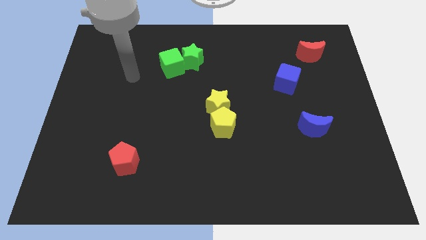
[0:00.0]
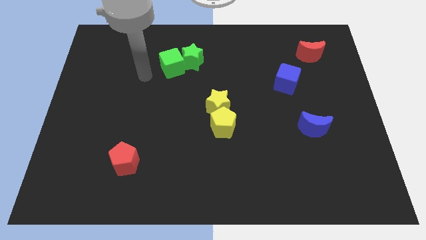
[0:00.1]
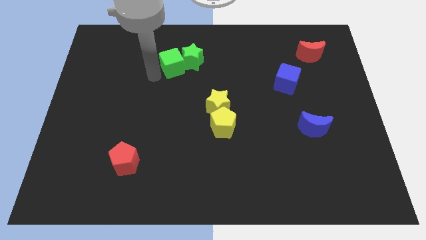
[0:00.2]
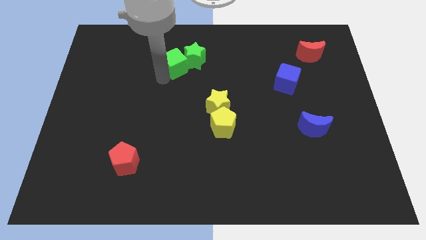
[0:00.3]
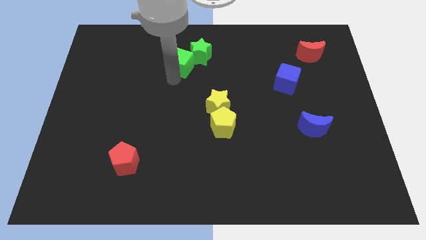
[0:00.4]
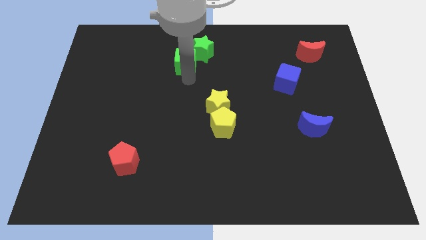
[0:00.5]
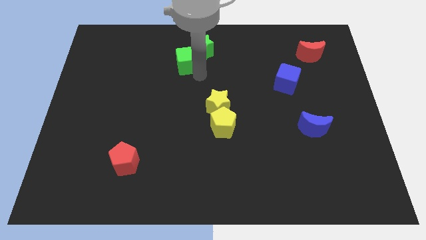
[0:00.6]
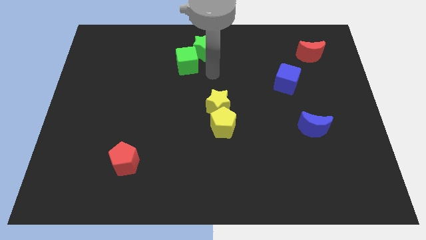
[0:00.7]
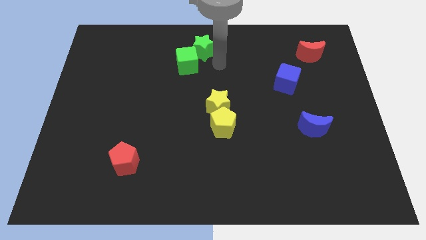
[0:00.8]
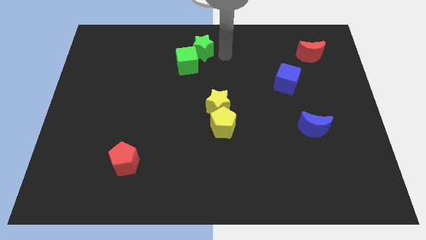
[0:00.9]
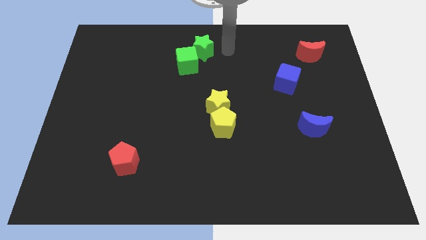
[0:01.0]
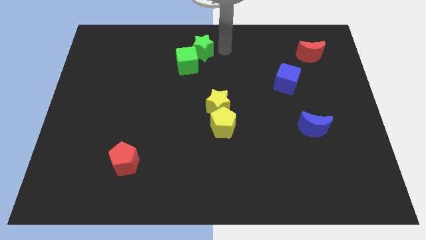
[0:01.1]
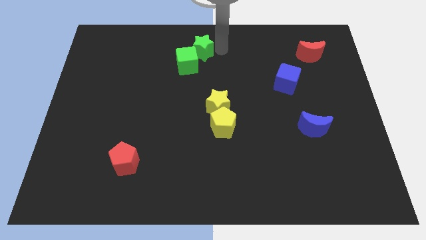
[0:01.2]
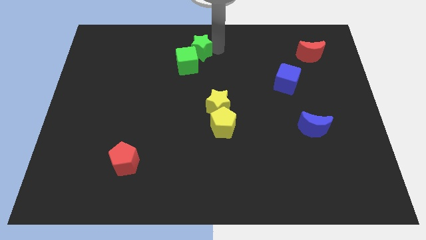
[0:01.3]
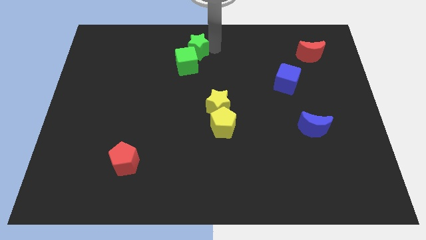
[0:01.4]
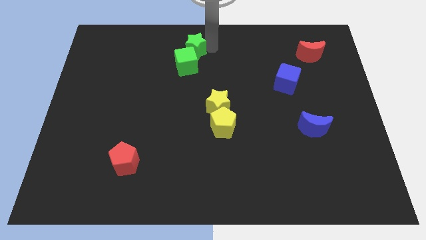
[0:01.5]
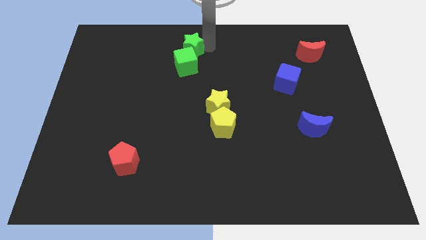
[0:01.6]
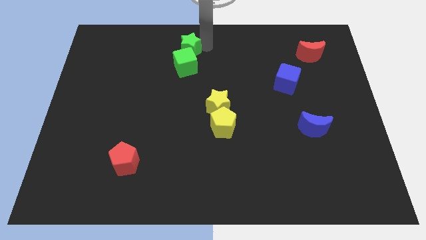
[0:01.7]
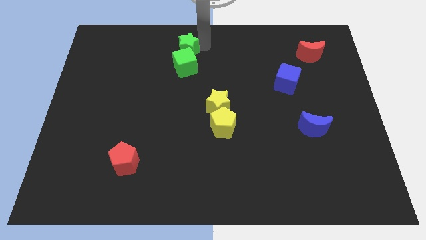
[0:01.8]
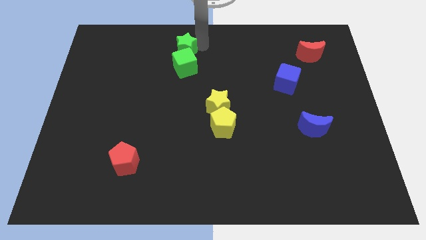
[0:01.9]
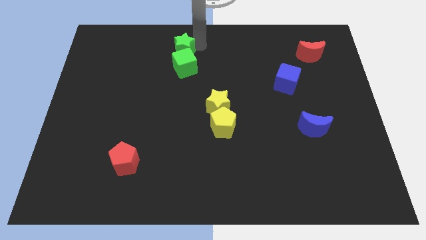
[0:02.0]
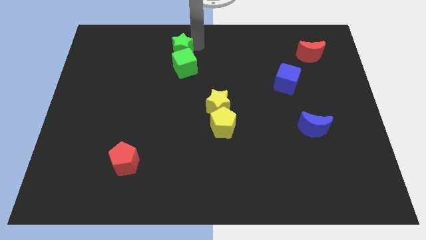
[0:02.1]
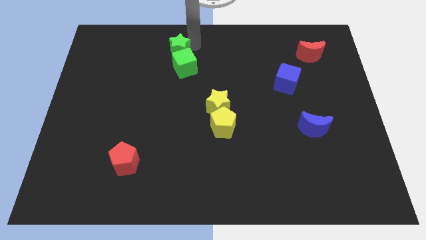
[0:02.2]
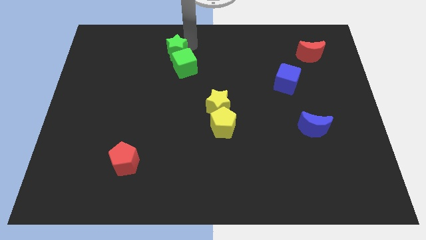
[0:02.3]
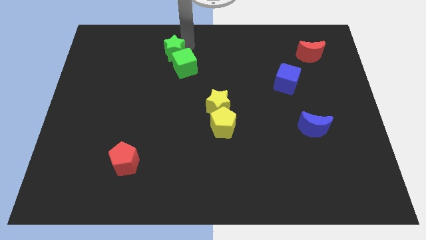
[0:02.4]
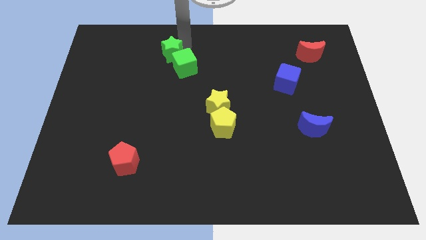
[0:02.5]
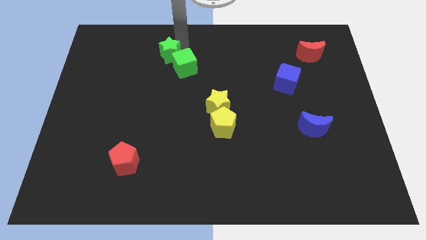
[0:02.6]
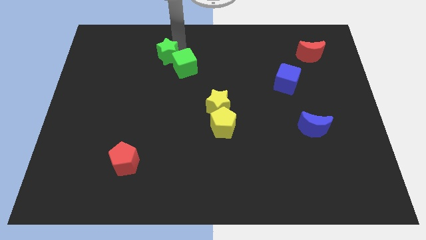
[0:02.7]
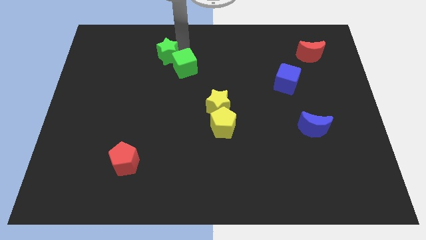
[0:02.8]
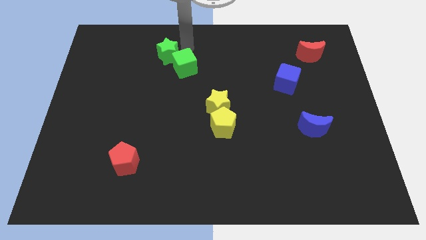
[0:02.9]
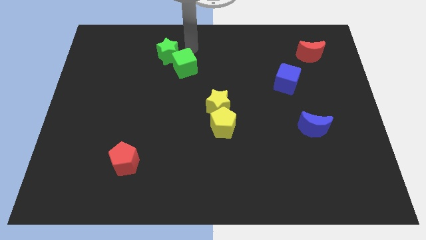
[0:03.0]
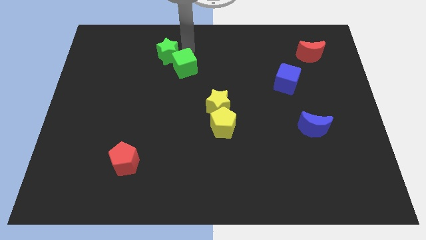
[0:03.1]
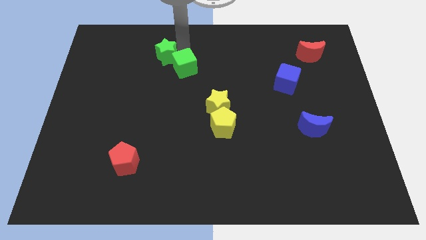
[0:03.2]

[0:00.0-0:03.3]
slightly move the green star to the left

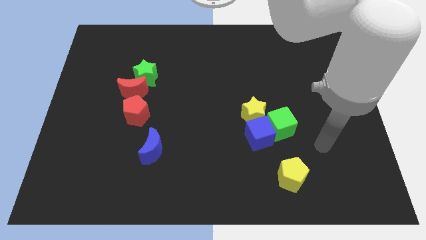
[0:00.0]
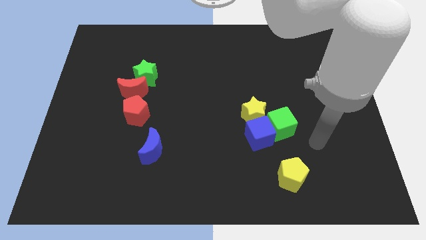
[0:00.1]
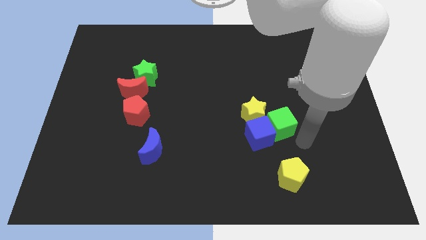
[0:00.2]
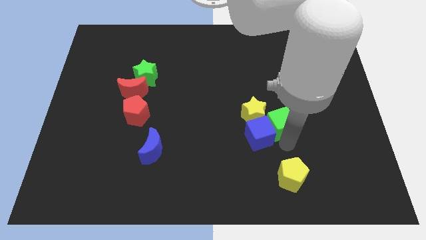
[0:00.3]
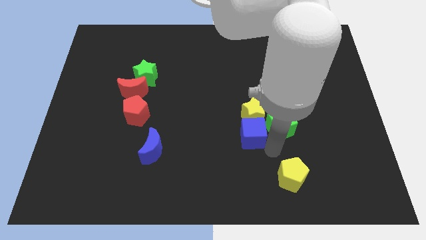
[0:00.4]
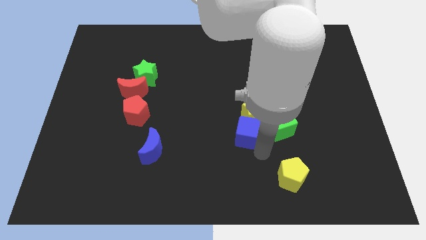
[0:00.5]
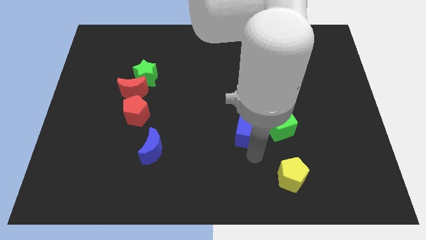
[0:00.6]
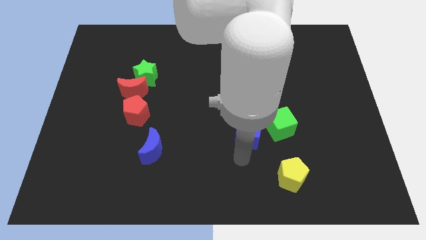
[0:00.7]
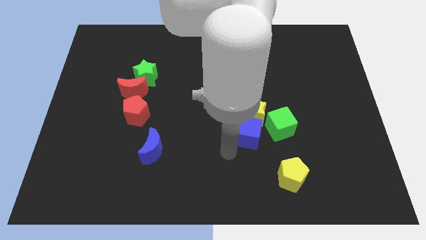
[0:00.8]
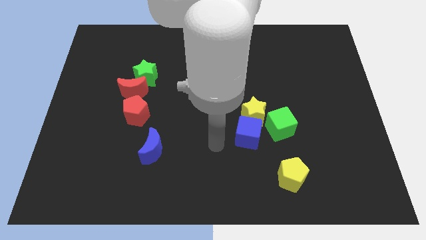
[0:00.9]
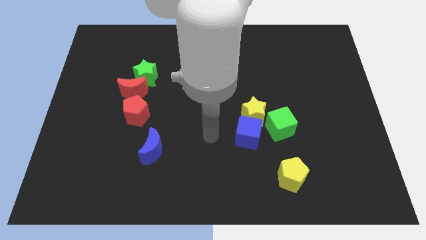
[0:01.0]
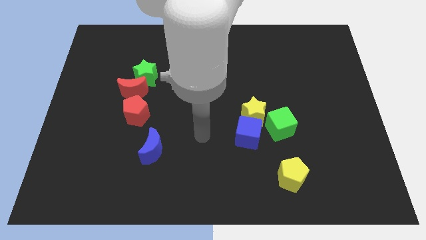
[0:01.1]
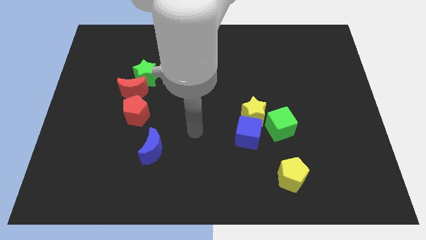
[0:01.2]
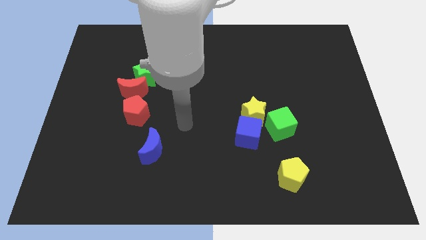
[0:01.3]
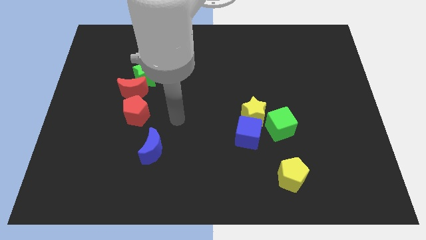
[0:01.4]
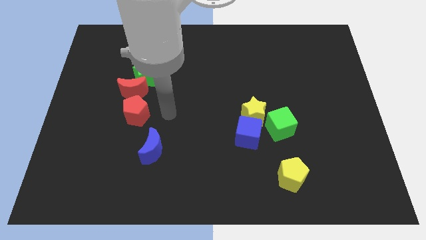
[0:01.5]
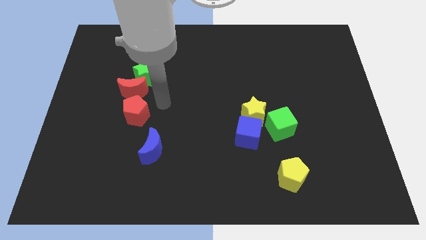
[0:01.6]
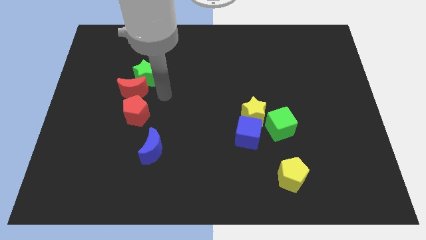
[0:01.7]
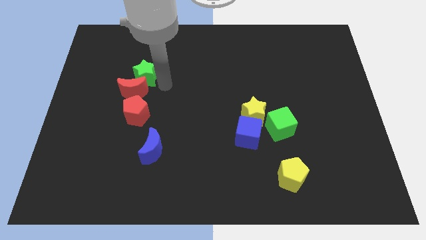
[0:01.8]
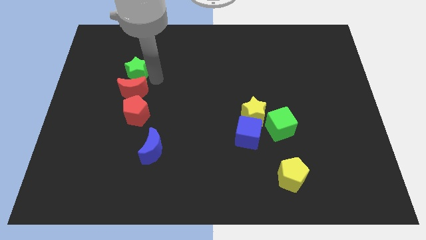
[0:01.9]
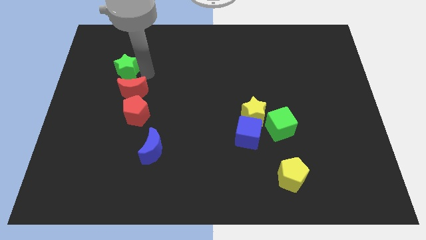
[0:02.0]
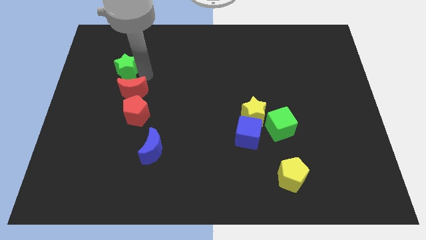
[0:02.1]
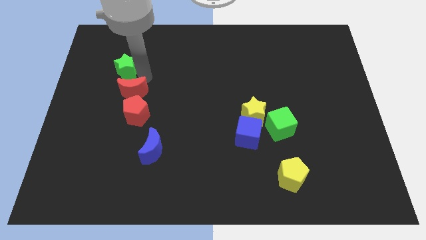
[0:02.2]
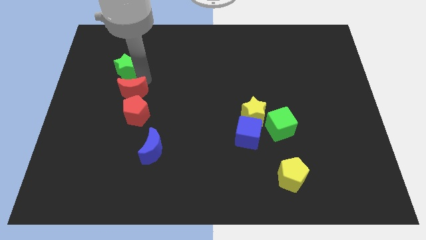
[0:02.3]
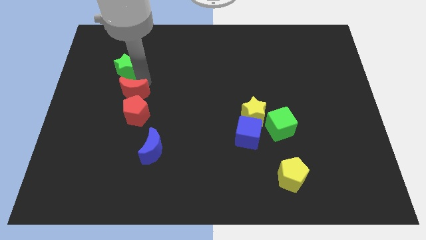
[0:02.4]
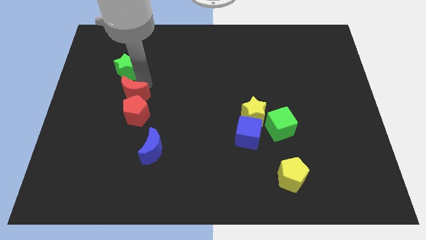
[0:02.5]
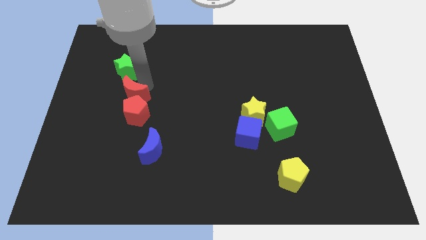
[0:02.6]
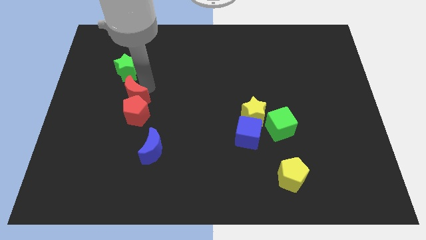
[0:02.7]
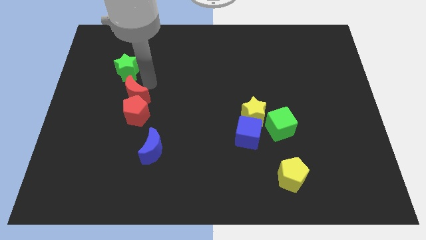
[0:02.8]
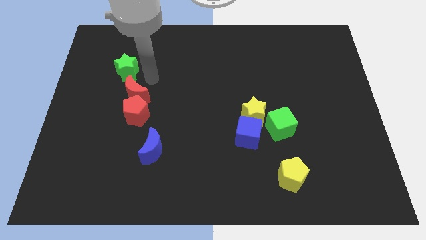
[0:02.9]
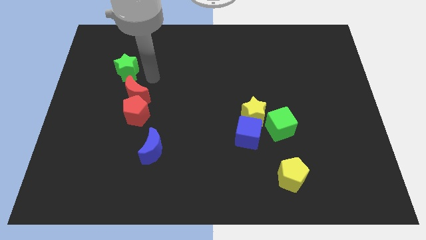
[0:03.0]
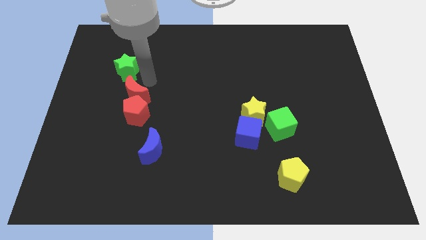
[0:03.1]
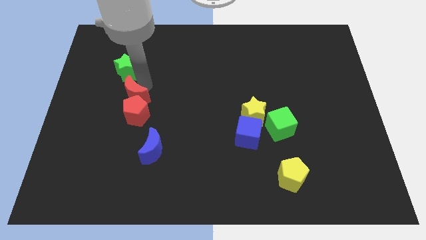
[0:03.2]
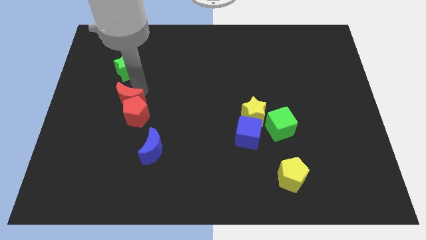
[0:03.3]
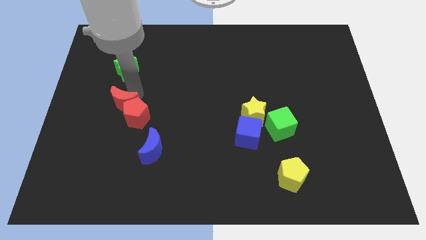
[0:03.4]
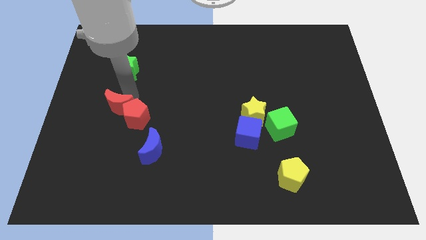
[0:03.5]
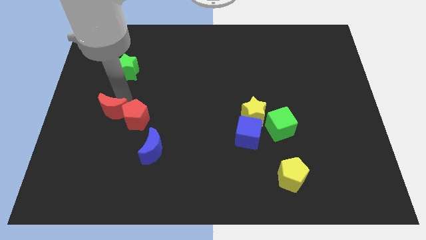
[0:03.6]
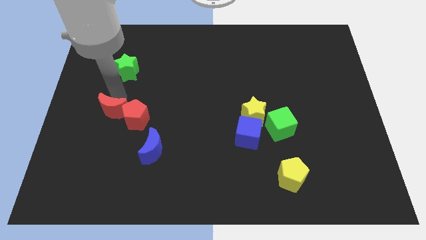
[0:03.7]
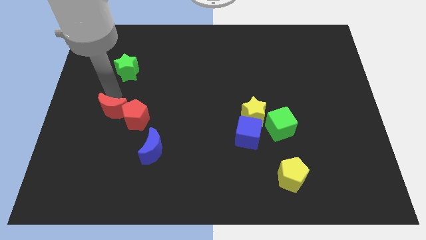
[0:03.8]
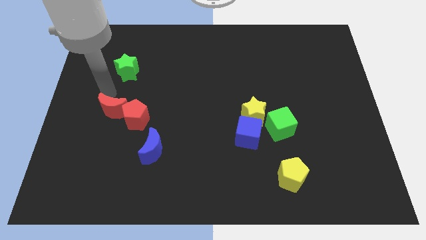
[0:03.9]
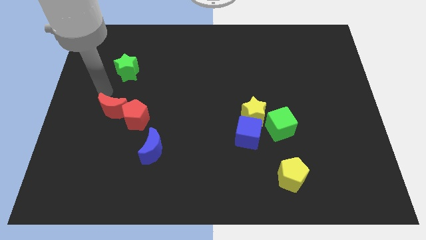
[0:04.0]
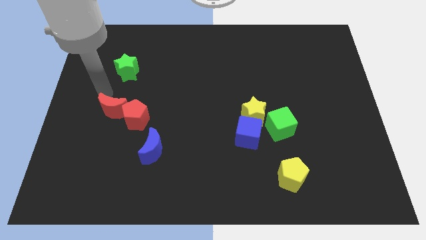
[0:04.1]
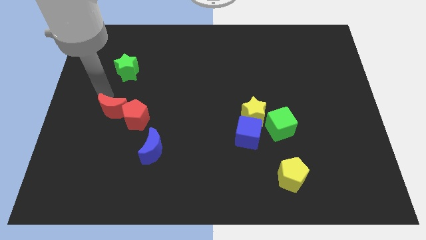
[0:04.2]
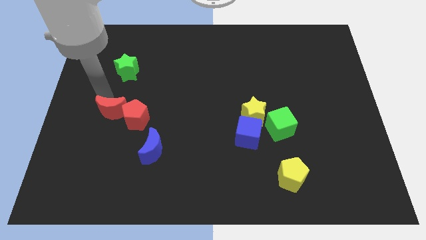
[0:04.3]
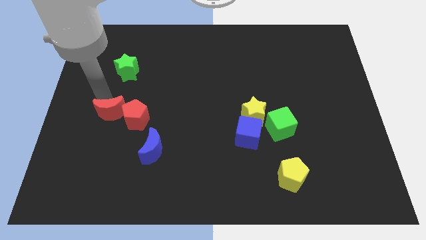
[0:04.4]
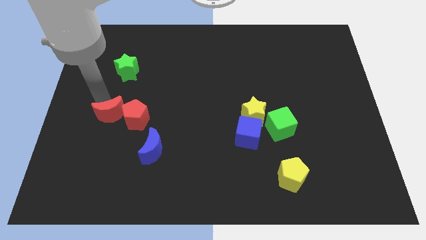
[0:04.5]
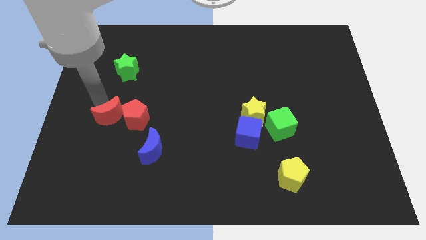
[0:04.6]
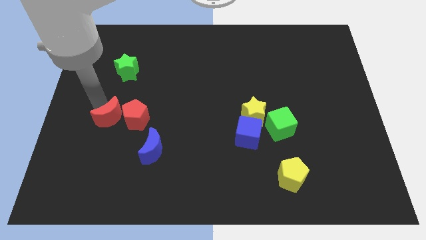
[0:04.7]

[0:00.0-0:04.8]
move the red moon downwards slightly
